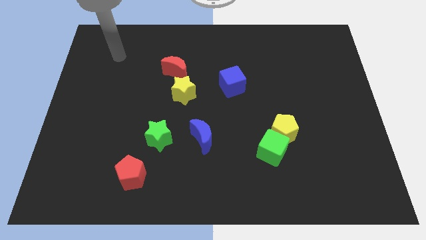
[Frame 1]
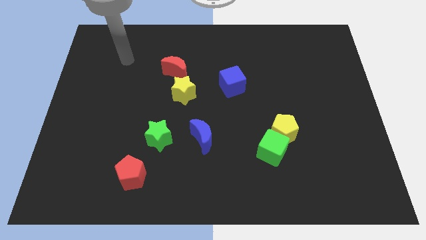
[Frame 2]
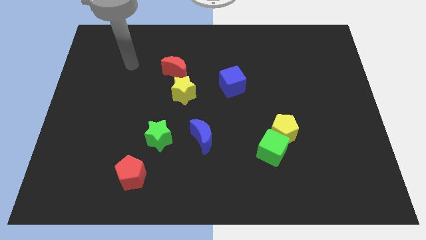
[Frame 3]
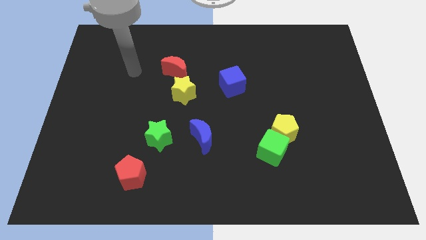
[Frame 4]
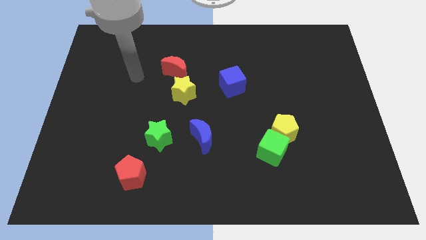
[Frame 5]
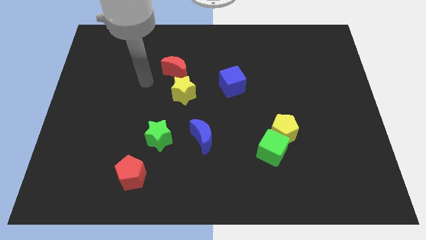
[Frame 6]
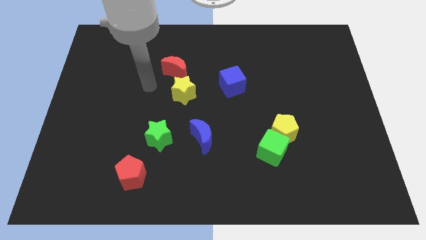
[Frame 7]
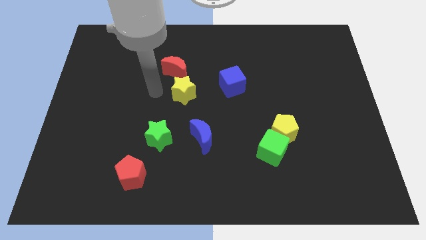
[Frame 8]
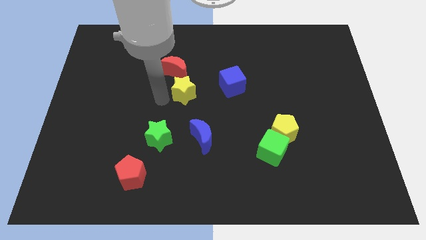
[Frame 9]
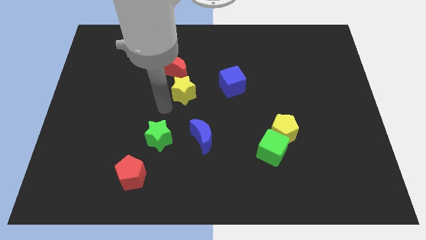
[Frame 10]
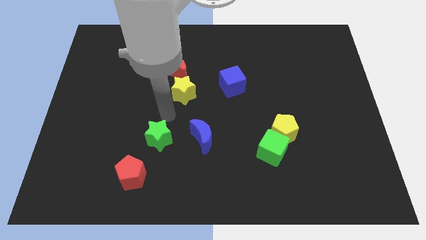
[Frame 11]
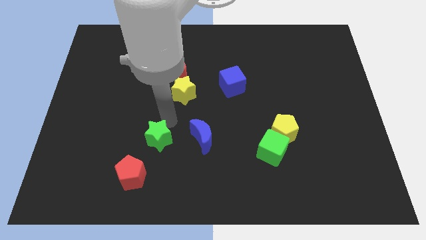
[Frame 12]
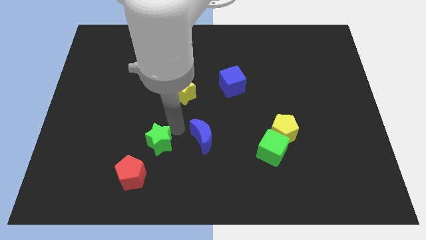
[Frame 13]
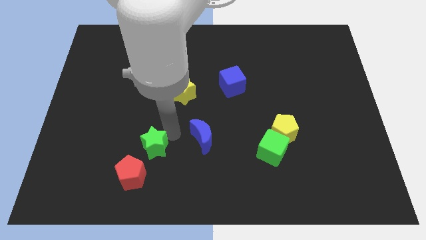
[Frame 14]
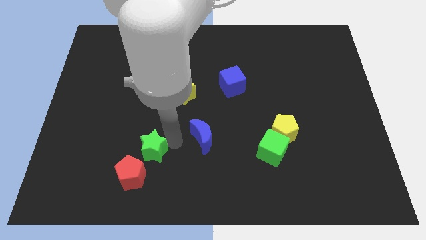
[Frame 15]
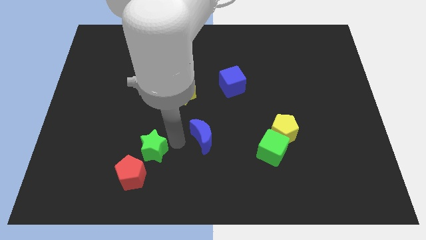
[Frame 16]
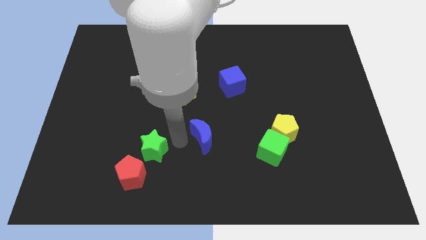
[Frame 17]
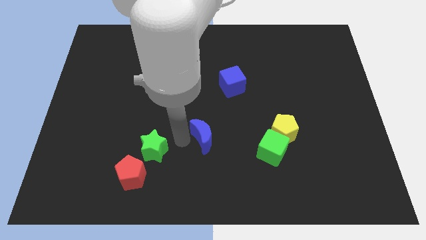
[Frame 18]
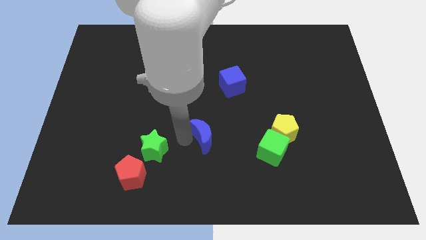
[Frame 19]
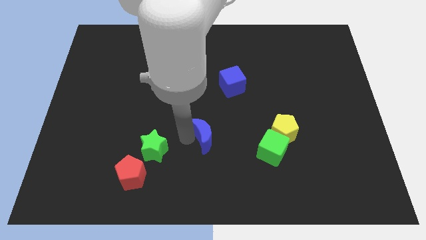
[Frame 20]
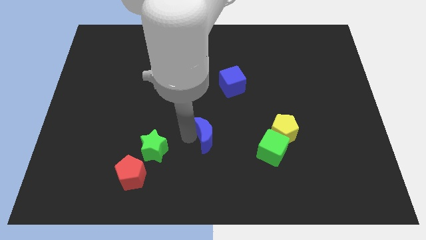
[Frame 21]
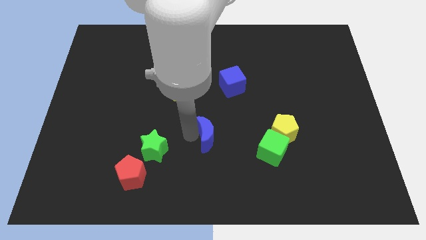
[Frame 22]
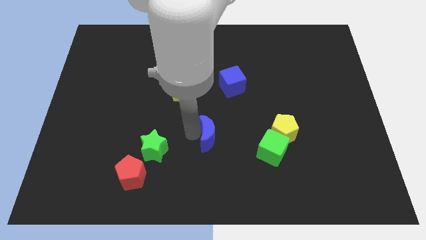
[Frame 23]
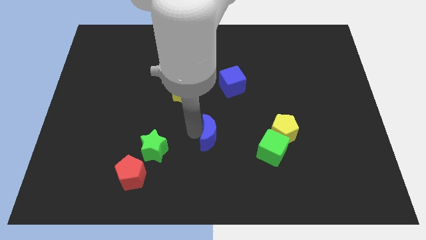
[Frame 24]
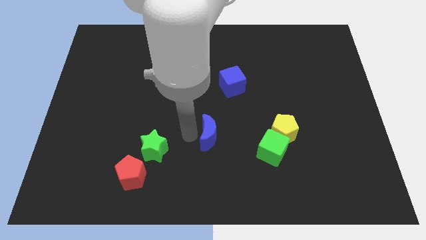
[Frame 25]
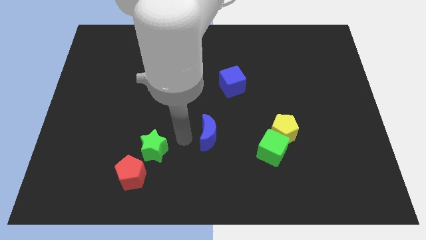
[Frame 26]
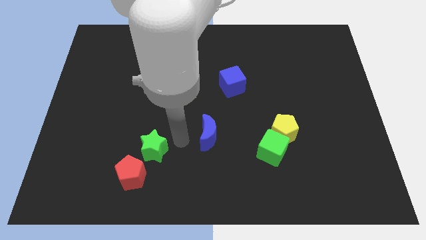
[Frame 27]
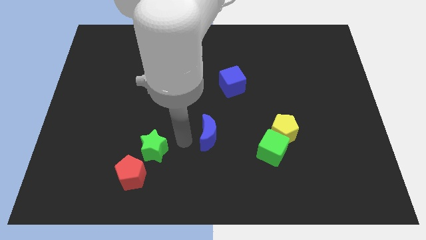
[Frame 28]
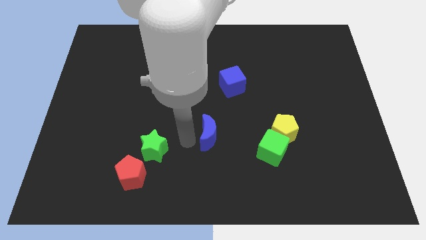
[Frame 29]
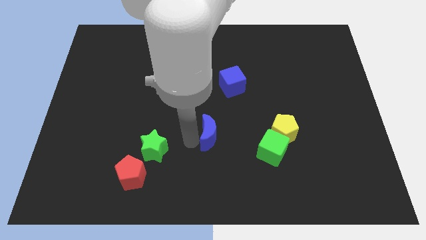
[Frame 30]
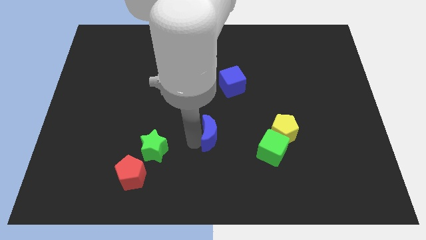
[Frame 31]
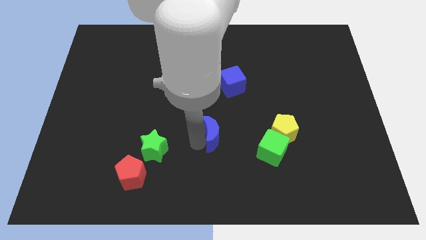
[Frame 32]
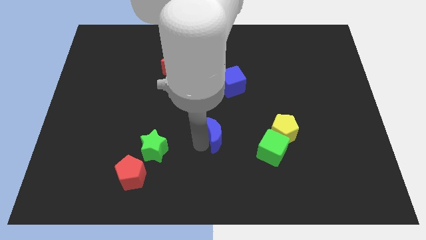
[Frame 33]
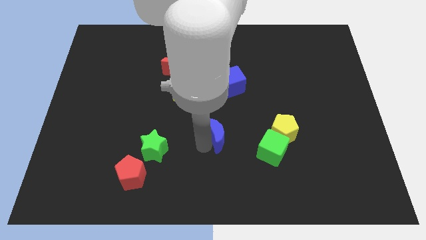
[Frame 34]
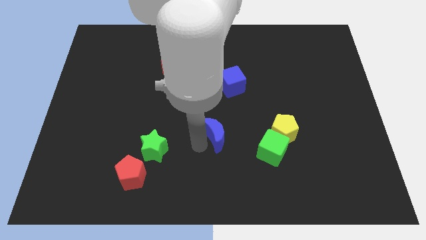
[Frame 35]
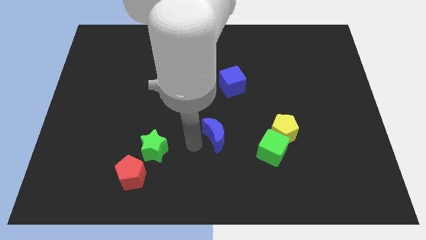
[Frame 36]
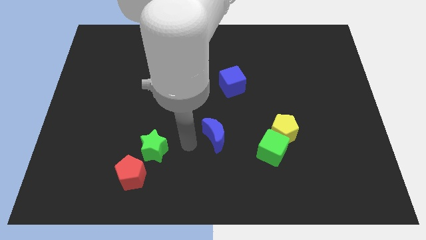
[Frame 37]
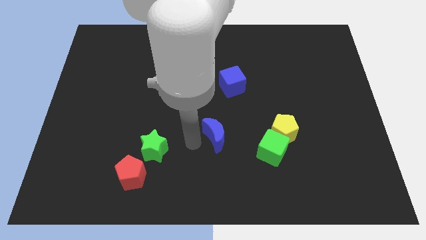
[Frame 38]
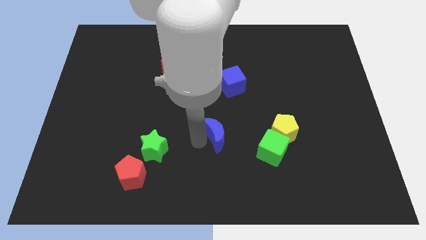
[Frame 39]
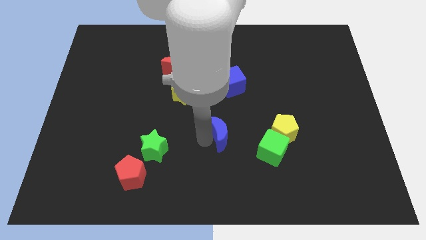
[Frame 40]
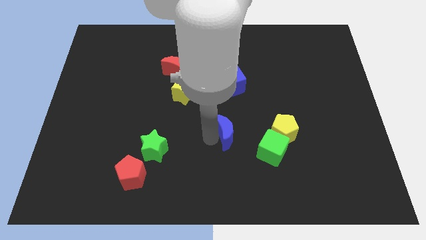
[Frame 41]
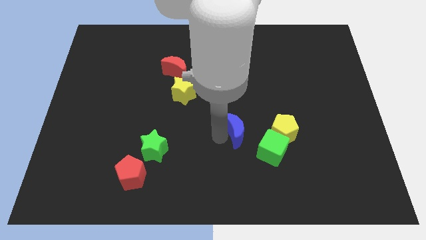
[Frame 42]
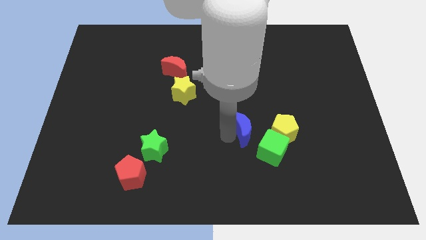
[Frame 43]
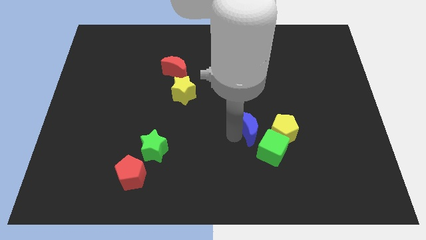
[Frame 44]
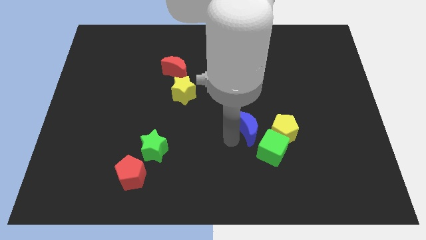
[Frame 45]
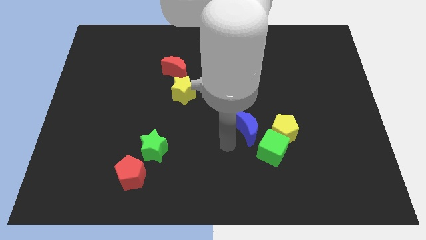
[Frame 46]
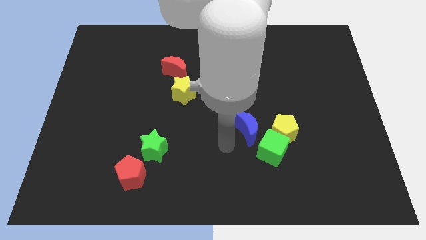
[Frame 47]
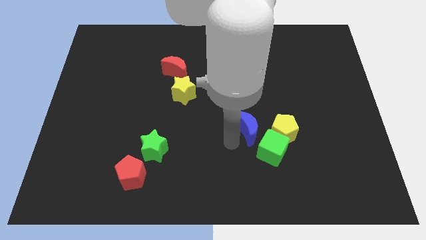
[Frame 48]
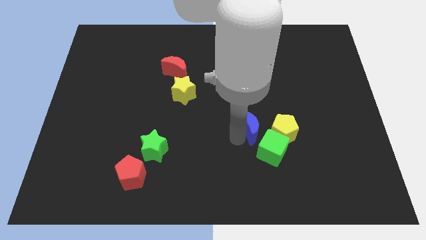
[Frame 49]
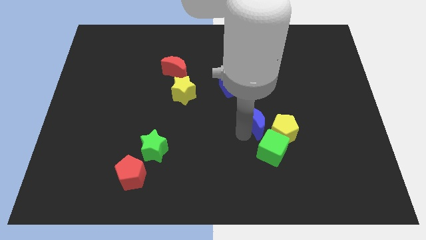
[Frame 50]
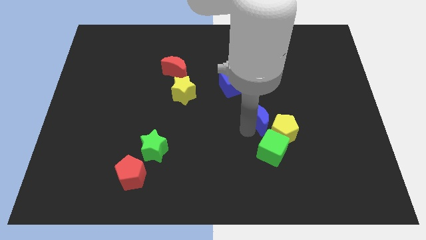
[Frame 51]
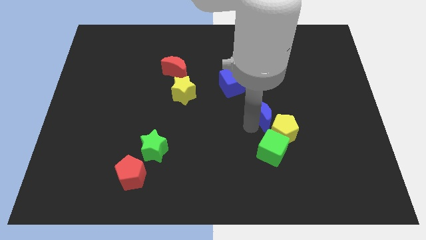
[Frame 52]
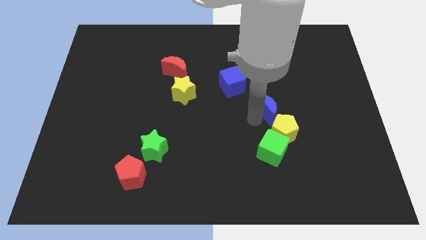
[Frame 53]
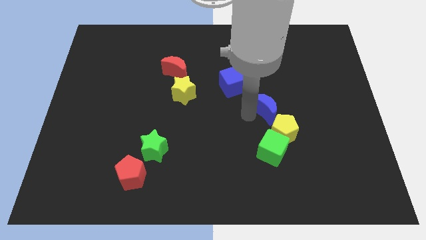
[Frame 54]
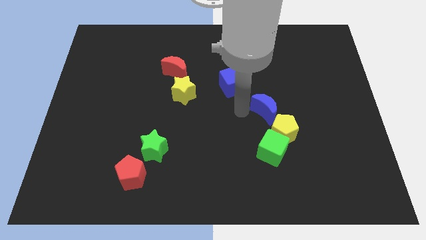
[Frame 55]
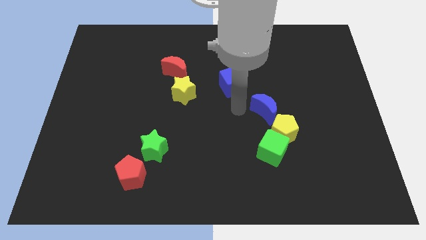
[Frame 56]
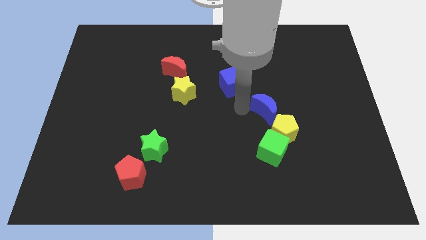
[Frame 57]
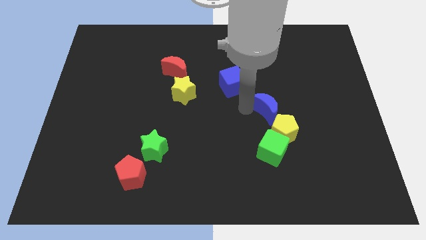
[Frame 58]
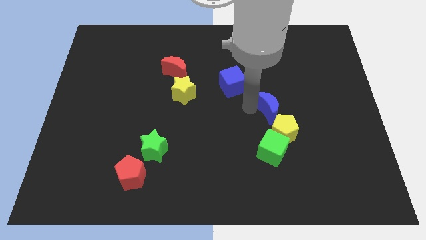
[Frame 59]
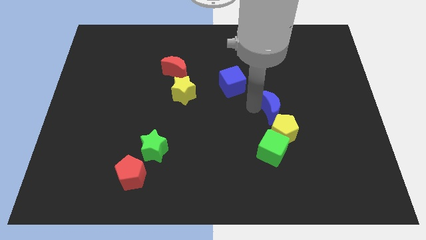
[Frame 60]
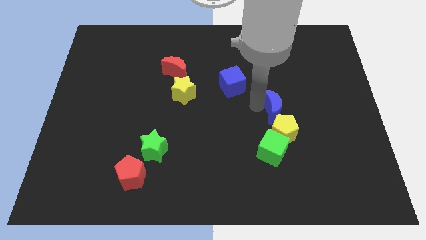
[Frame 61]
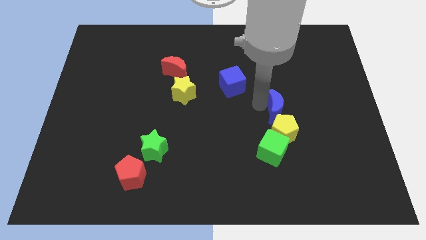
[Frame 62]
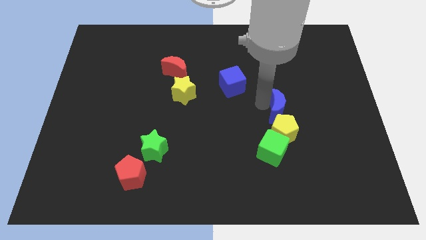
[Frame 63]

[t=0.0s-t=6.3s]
slide the blue moon diagonally up and to the right of the yellow pentagon

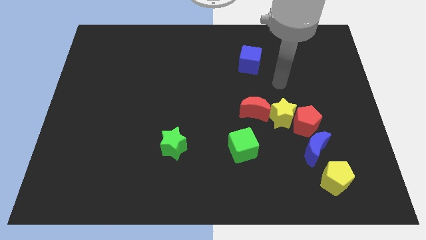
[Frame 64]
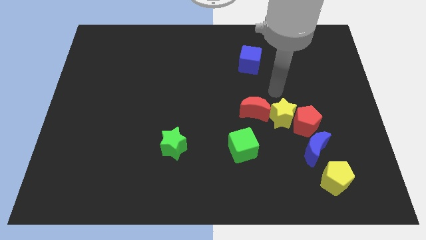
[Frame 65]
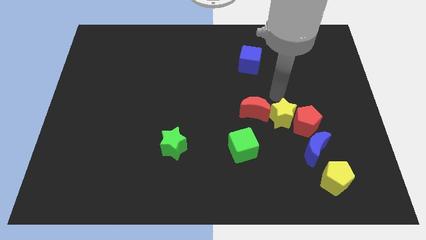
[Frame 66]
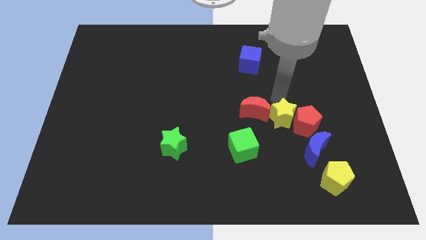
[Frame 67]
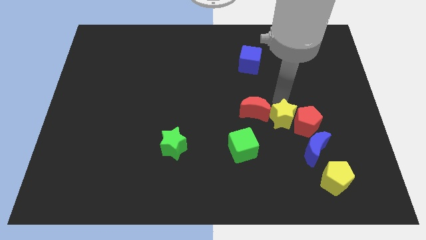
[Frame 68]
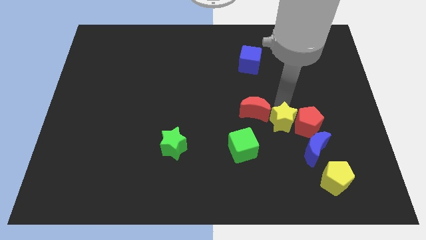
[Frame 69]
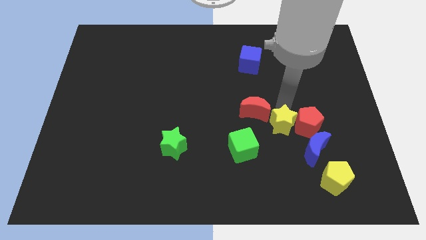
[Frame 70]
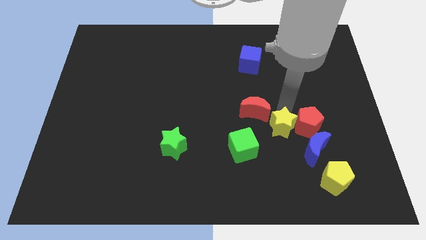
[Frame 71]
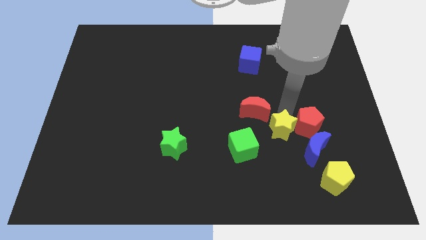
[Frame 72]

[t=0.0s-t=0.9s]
slide the yellow star to the right side of the green cube
